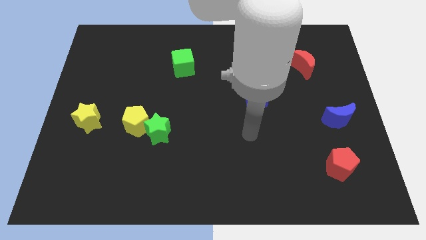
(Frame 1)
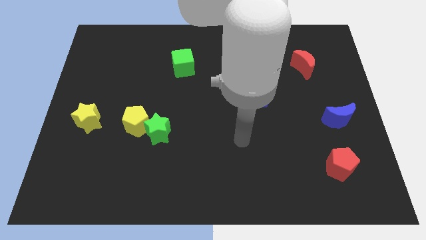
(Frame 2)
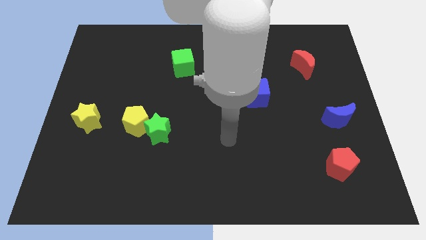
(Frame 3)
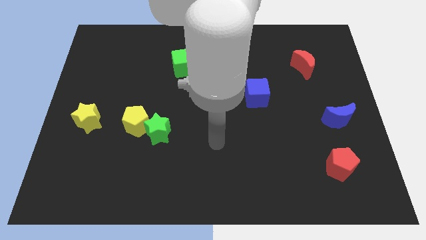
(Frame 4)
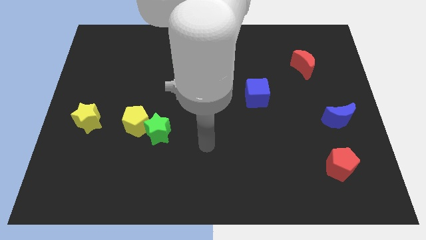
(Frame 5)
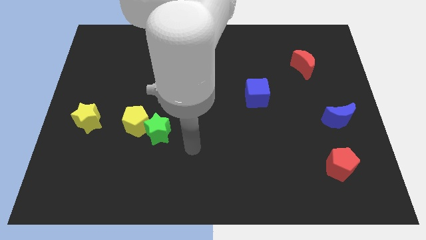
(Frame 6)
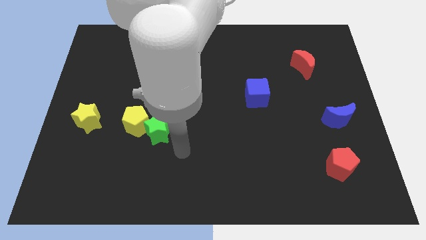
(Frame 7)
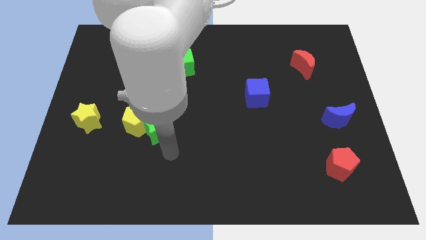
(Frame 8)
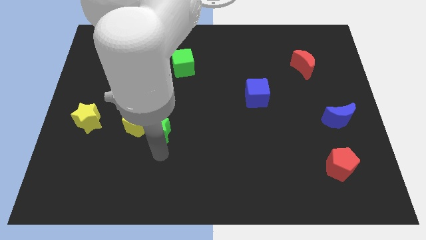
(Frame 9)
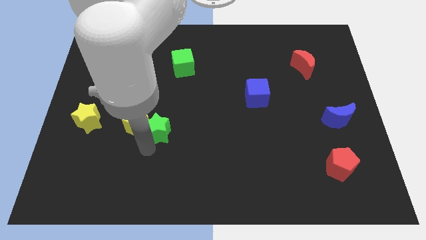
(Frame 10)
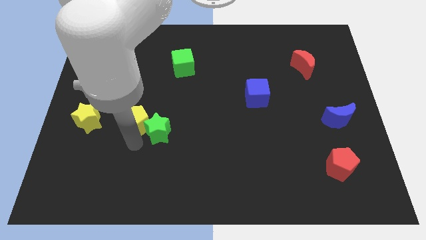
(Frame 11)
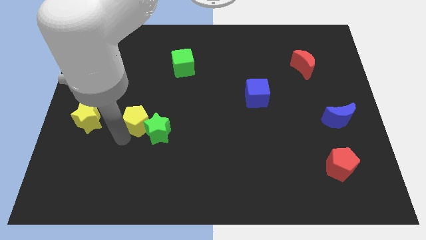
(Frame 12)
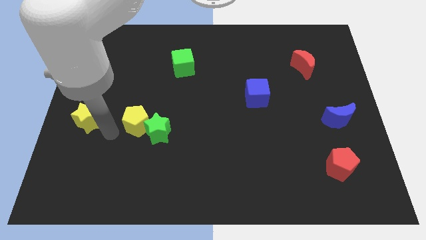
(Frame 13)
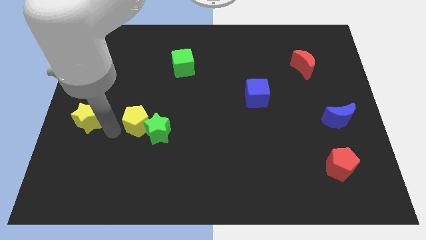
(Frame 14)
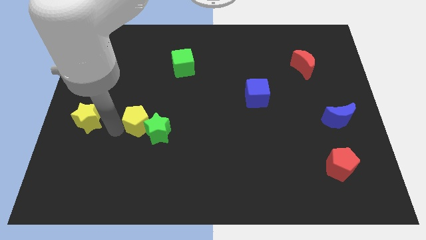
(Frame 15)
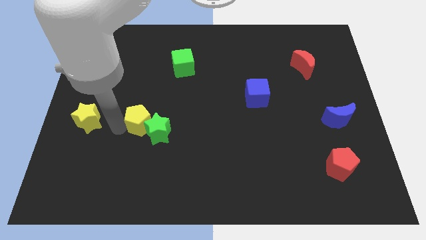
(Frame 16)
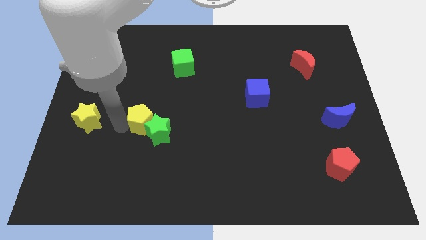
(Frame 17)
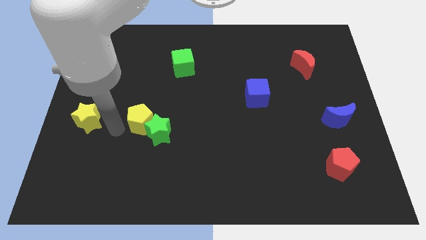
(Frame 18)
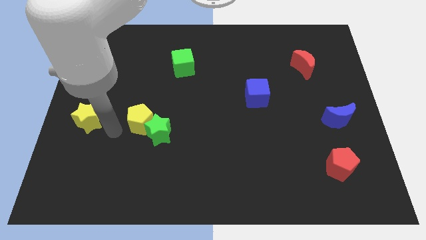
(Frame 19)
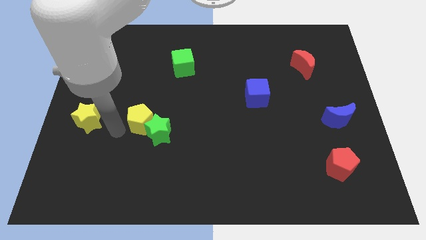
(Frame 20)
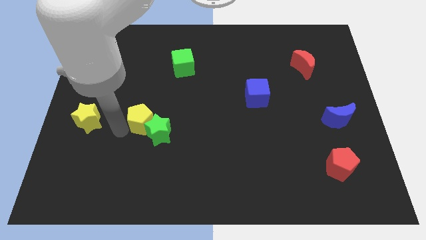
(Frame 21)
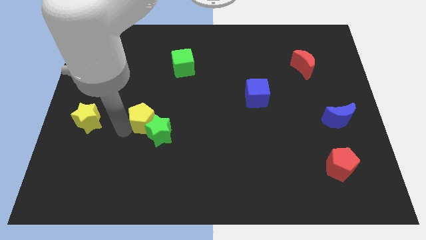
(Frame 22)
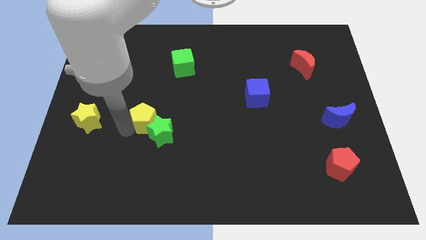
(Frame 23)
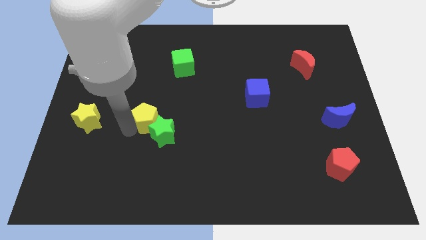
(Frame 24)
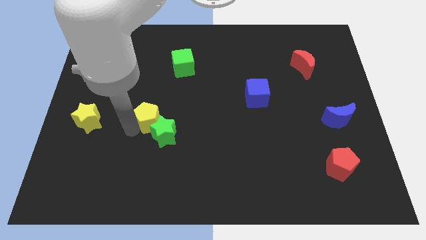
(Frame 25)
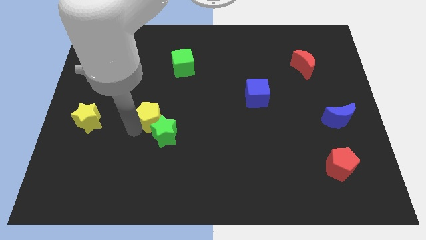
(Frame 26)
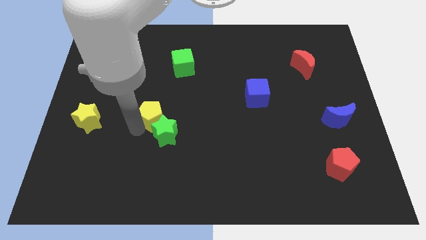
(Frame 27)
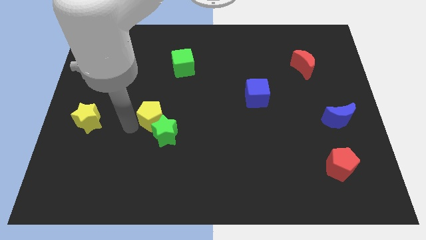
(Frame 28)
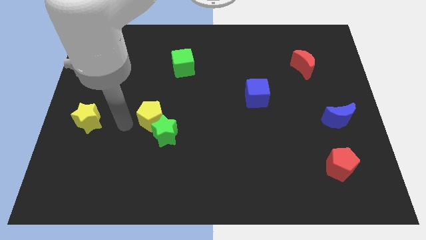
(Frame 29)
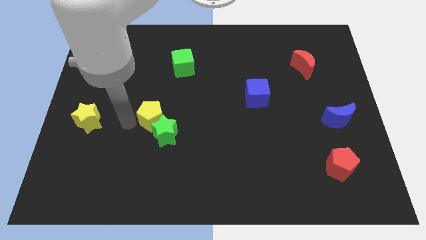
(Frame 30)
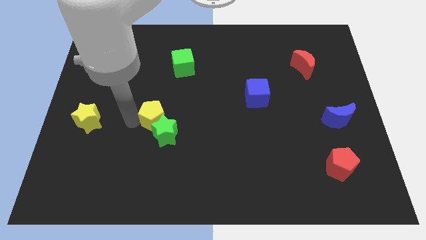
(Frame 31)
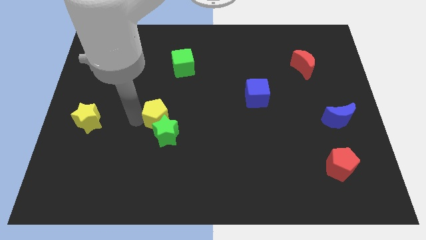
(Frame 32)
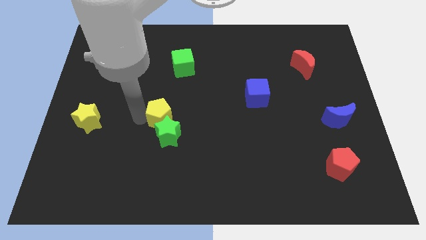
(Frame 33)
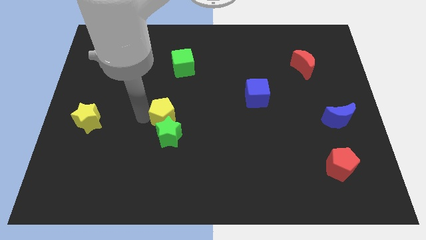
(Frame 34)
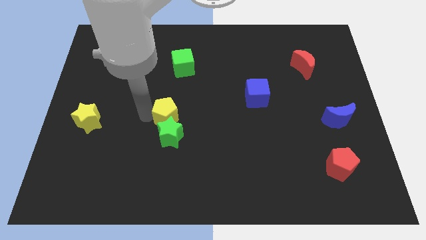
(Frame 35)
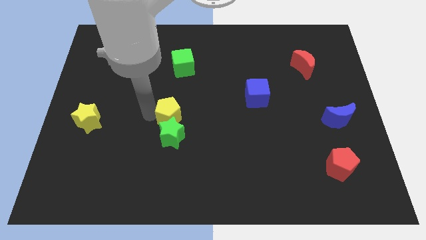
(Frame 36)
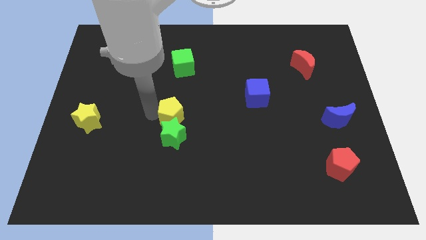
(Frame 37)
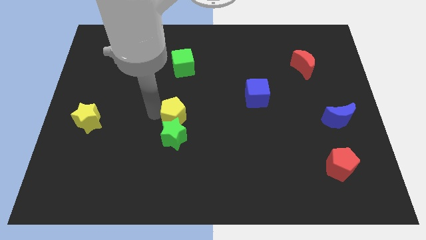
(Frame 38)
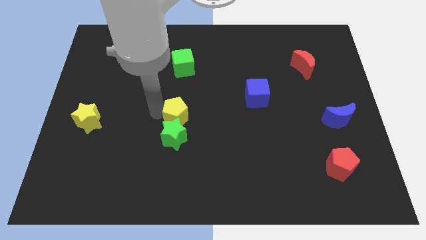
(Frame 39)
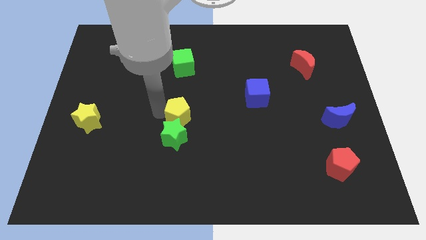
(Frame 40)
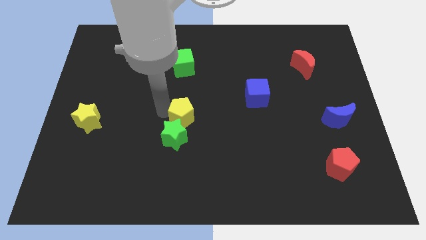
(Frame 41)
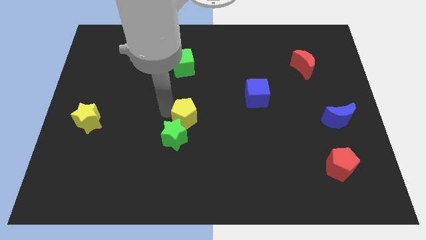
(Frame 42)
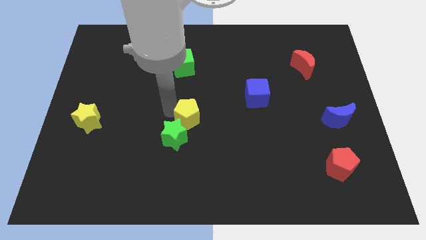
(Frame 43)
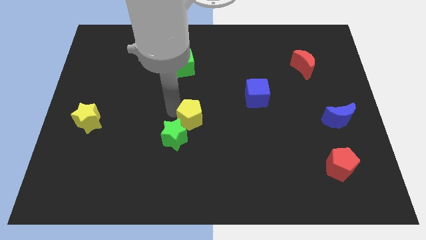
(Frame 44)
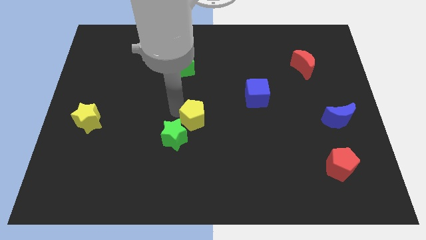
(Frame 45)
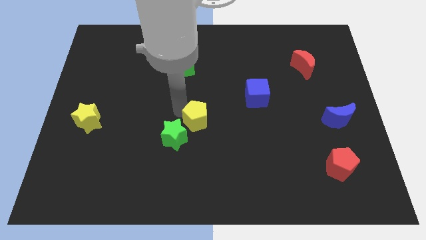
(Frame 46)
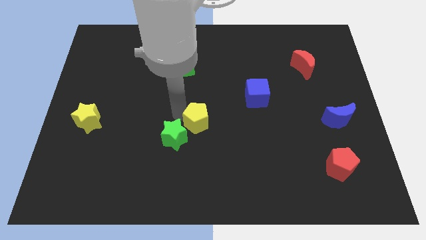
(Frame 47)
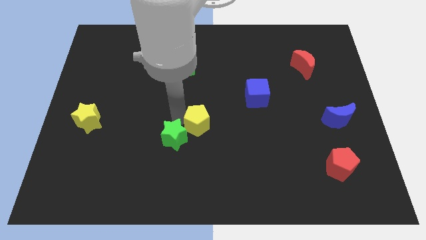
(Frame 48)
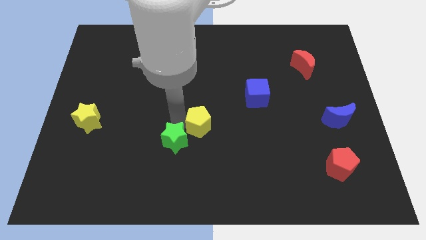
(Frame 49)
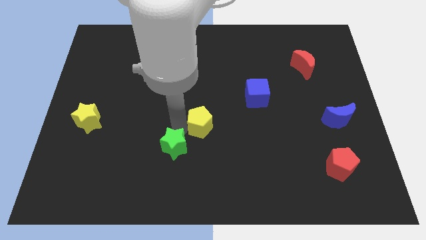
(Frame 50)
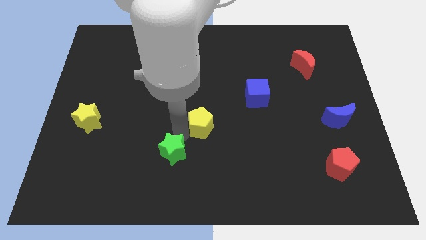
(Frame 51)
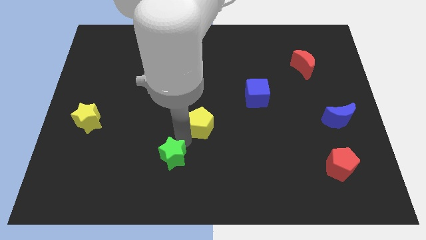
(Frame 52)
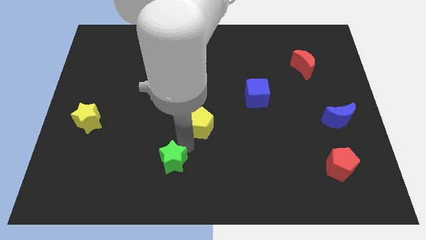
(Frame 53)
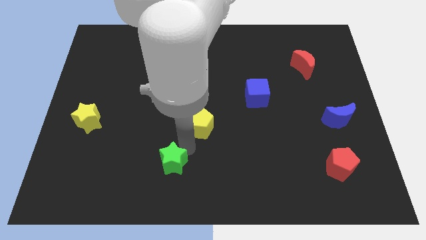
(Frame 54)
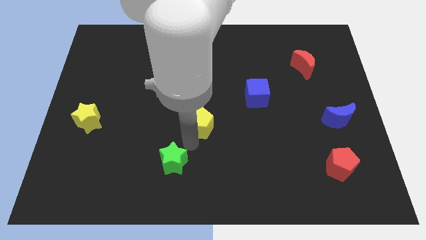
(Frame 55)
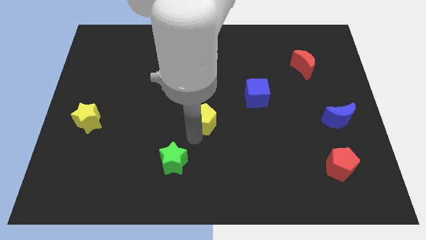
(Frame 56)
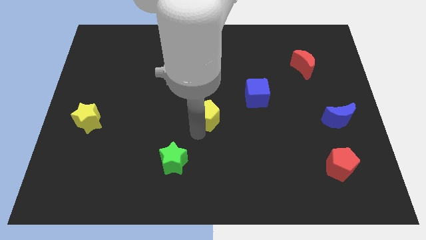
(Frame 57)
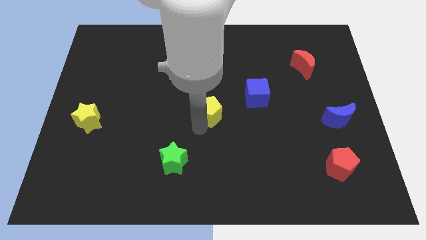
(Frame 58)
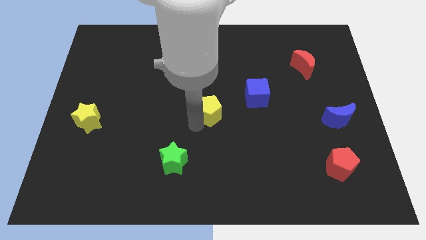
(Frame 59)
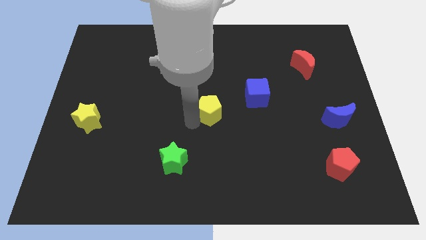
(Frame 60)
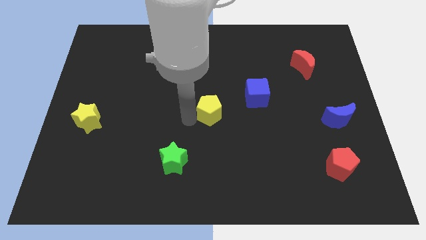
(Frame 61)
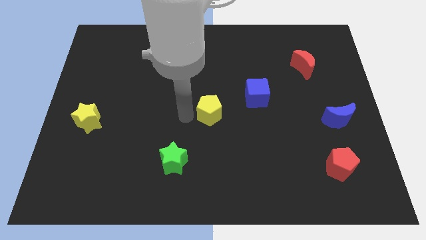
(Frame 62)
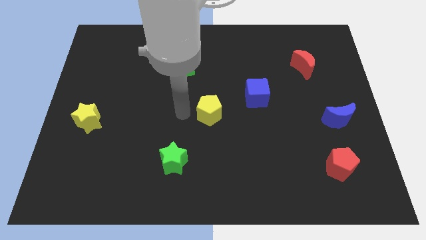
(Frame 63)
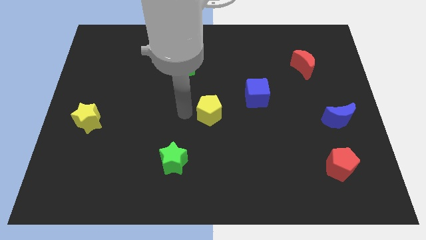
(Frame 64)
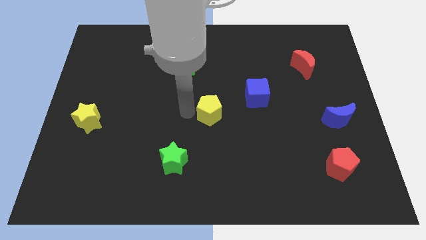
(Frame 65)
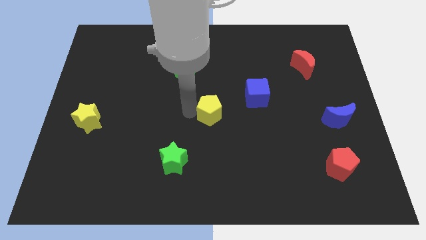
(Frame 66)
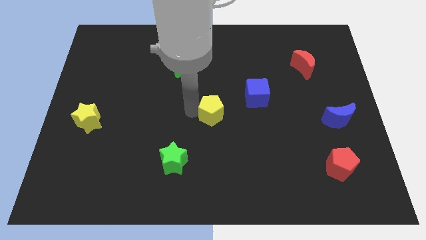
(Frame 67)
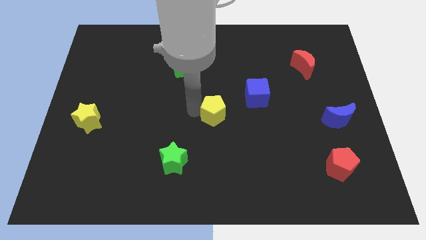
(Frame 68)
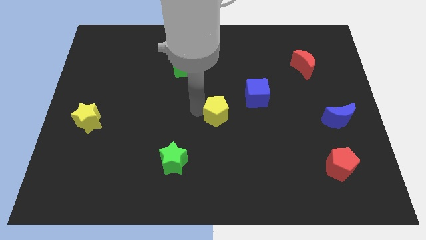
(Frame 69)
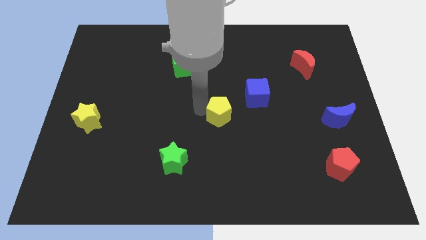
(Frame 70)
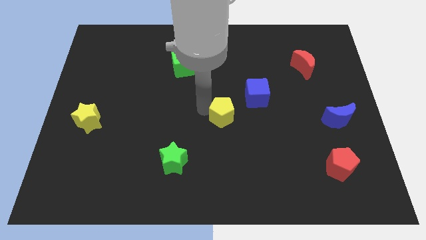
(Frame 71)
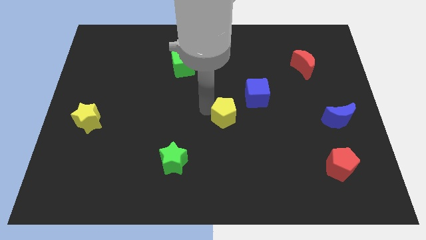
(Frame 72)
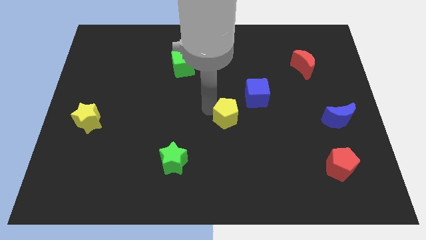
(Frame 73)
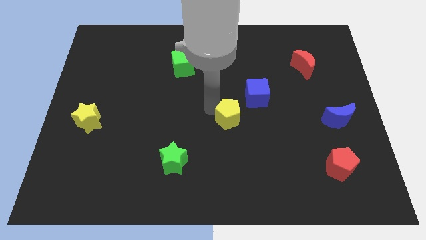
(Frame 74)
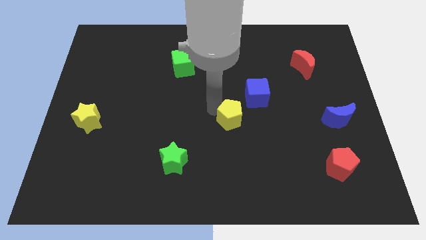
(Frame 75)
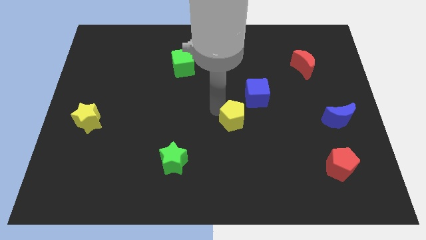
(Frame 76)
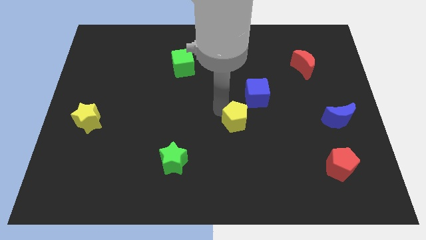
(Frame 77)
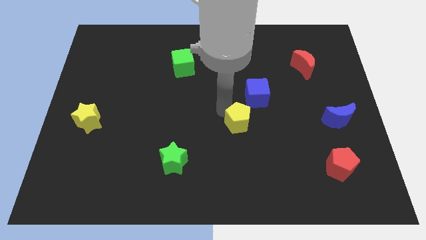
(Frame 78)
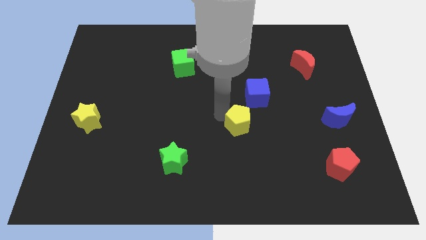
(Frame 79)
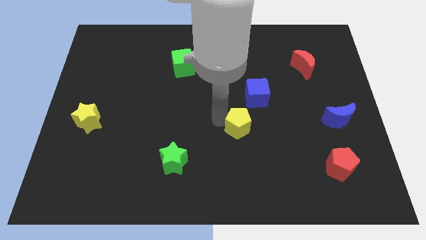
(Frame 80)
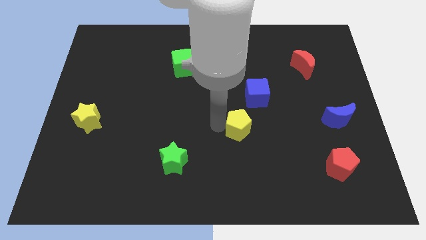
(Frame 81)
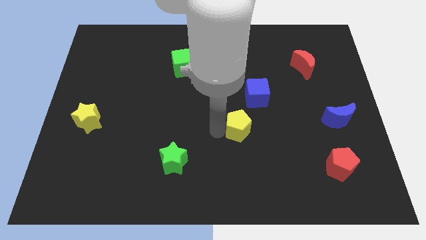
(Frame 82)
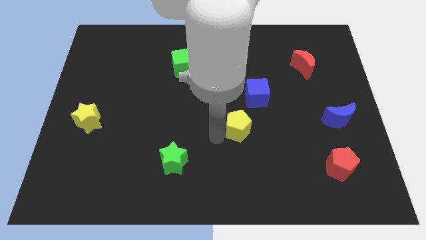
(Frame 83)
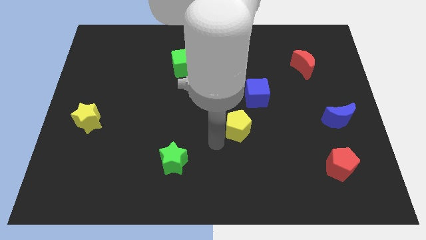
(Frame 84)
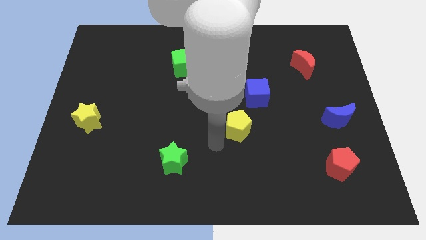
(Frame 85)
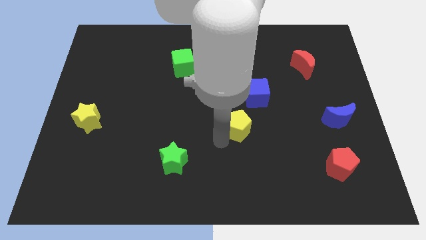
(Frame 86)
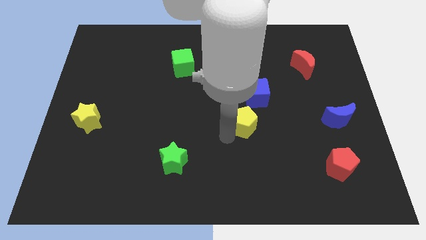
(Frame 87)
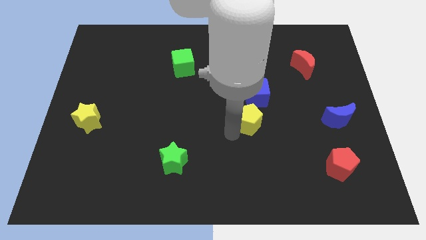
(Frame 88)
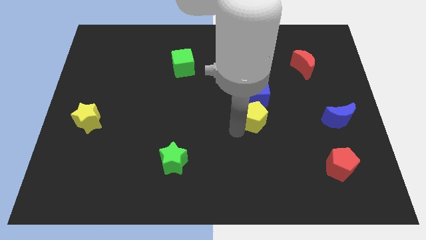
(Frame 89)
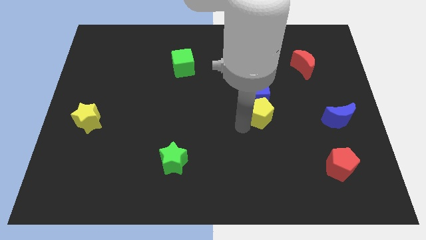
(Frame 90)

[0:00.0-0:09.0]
slide the yellow pentagon to the bottom right side of the blue cube
